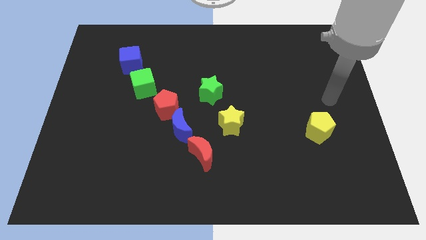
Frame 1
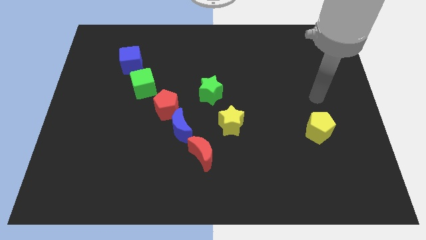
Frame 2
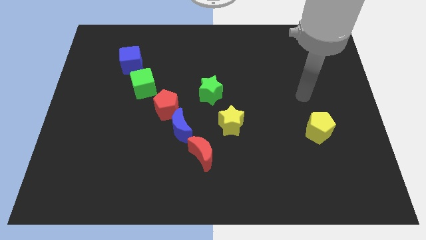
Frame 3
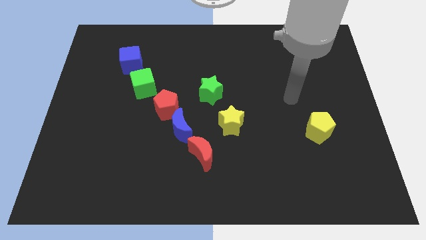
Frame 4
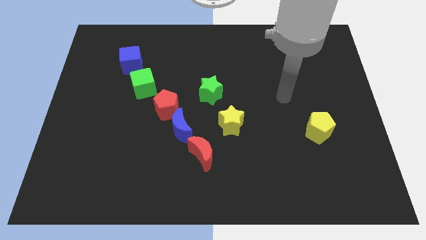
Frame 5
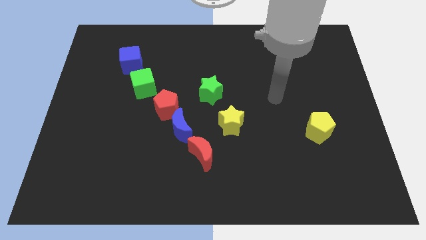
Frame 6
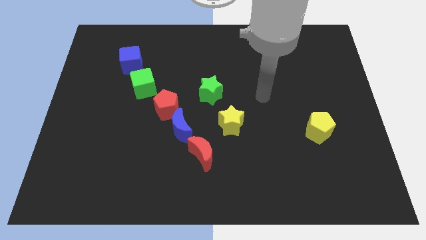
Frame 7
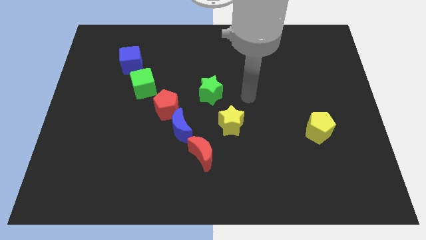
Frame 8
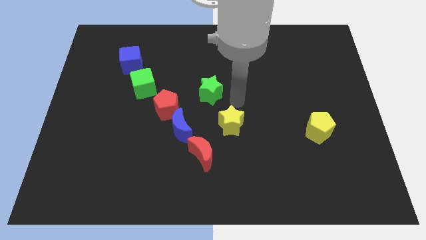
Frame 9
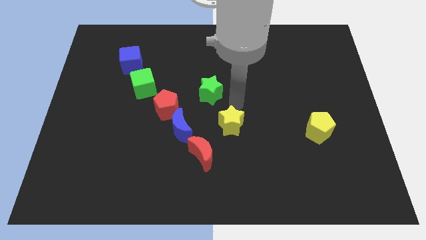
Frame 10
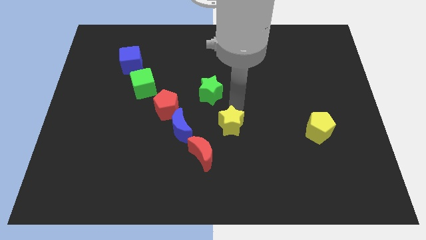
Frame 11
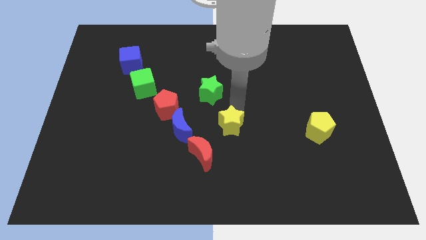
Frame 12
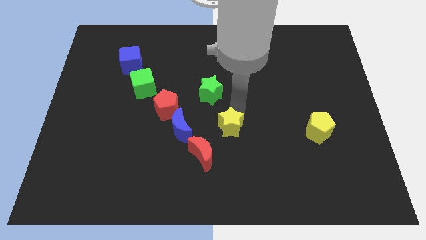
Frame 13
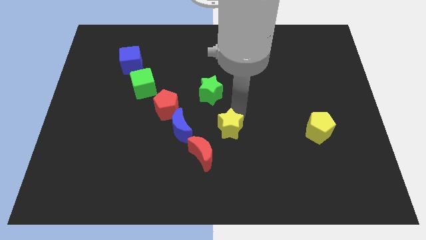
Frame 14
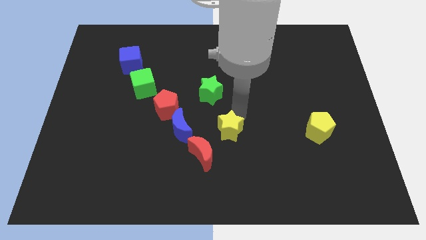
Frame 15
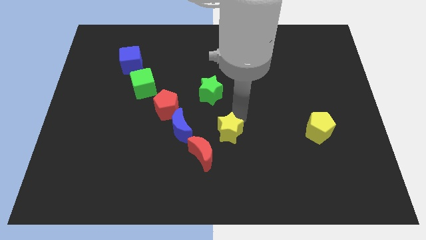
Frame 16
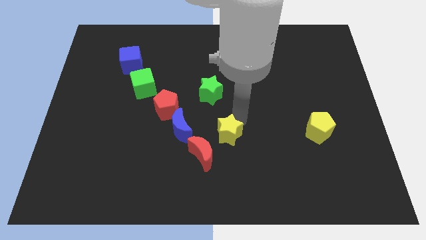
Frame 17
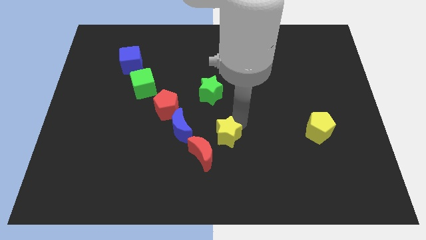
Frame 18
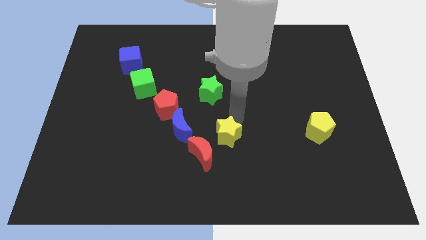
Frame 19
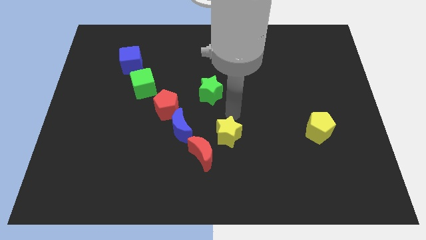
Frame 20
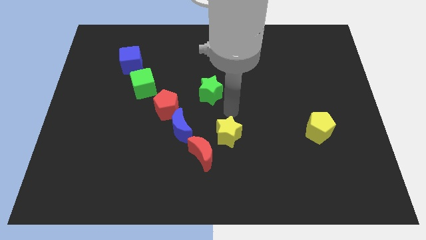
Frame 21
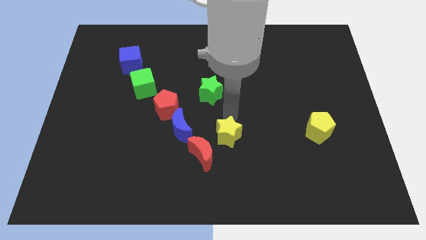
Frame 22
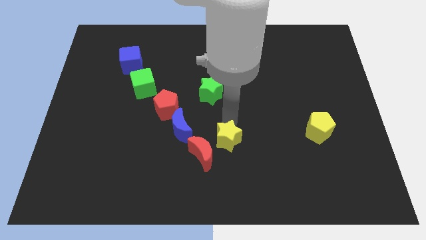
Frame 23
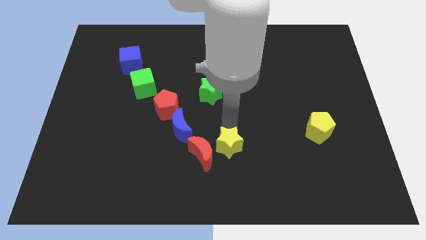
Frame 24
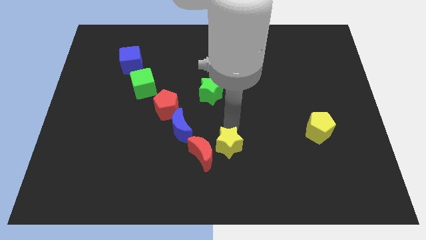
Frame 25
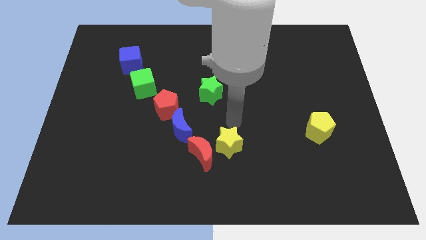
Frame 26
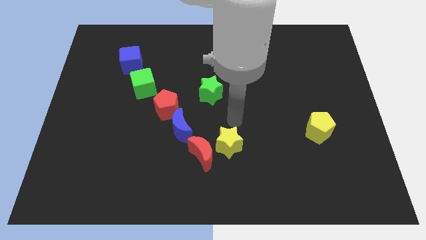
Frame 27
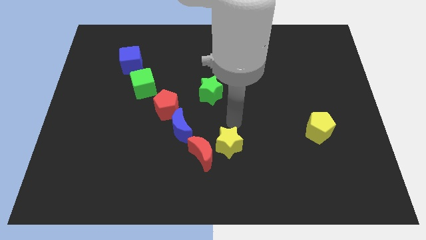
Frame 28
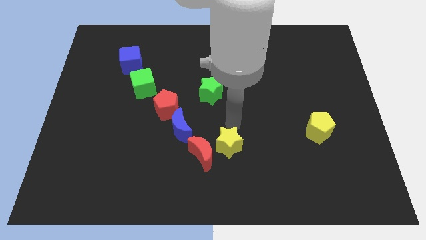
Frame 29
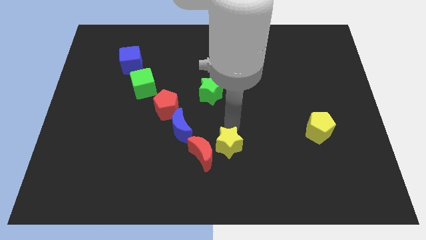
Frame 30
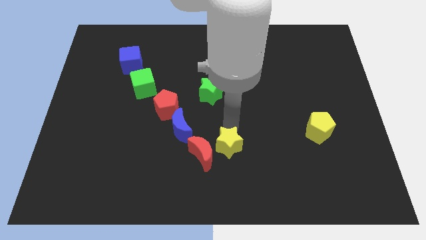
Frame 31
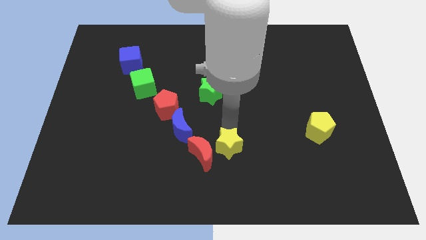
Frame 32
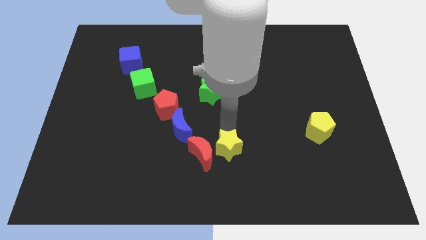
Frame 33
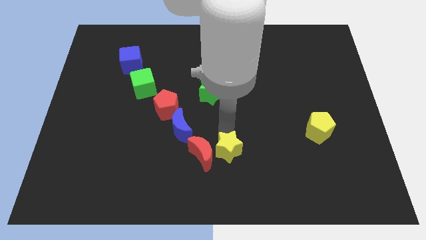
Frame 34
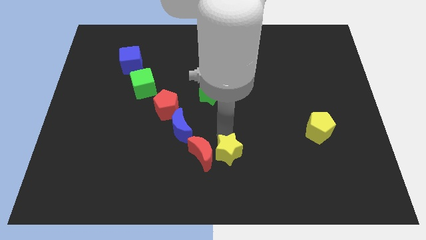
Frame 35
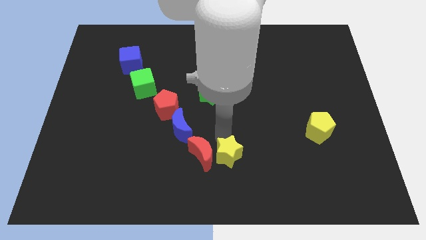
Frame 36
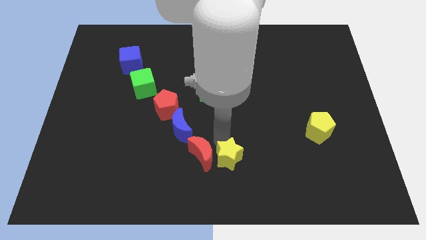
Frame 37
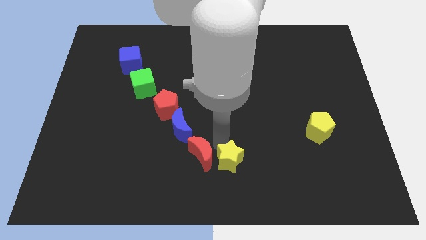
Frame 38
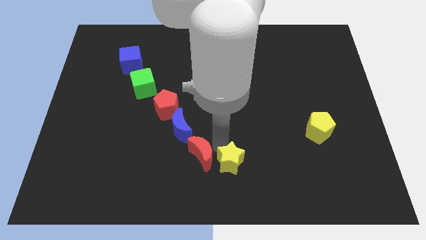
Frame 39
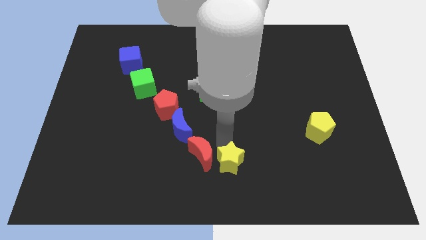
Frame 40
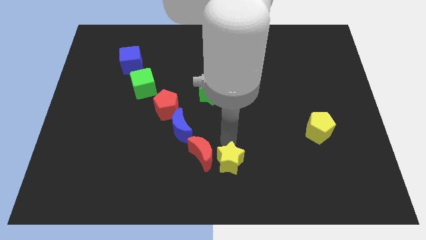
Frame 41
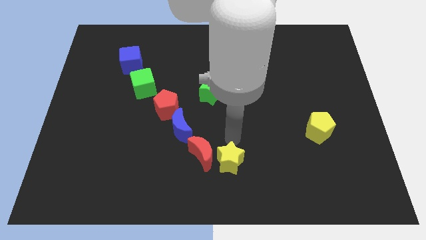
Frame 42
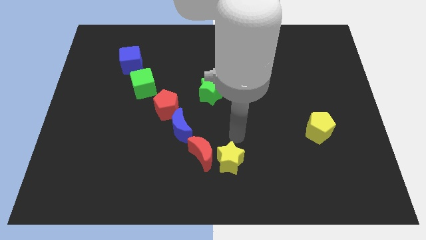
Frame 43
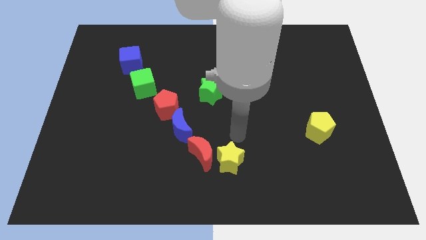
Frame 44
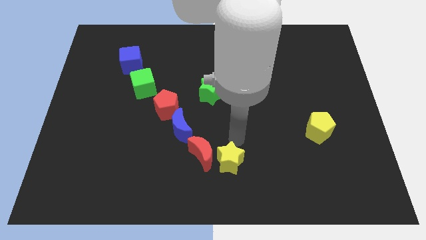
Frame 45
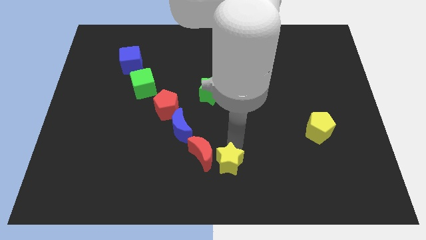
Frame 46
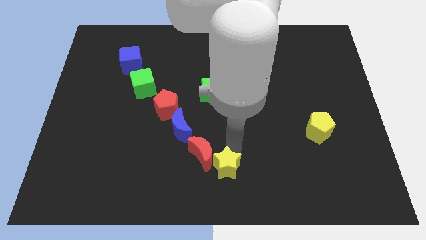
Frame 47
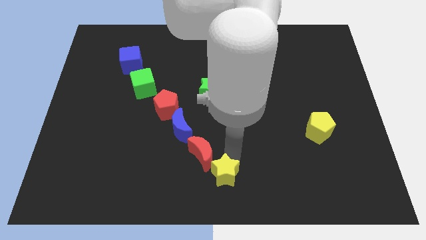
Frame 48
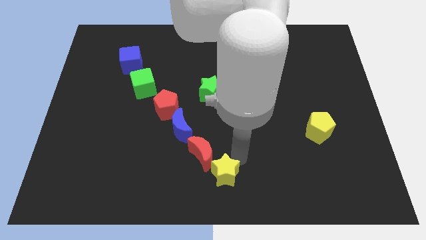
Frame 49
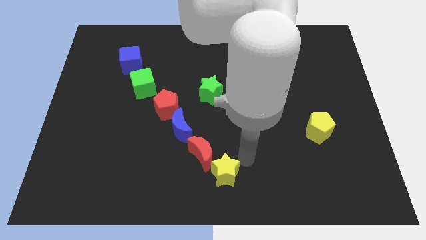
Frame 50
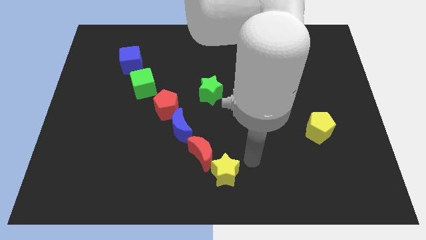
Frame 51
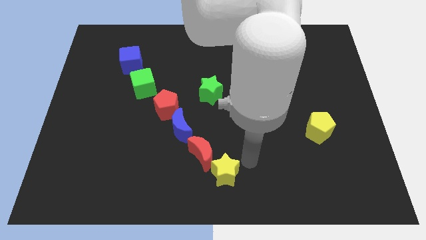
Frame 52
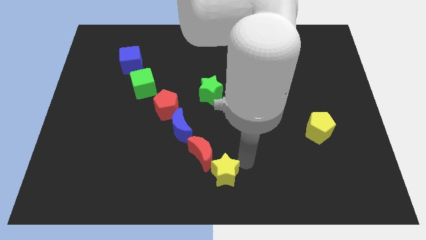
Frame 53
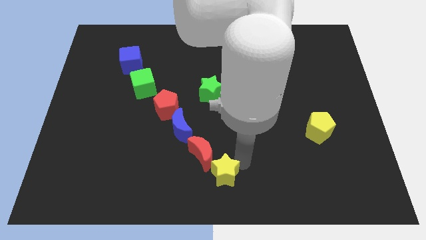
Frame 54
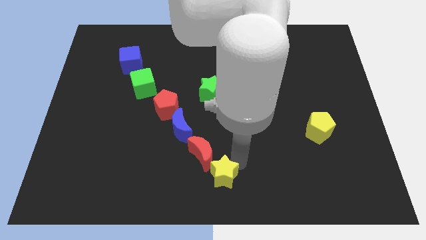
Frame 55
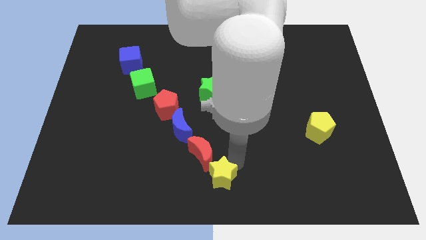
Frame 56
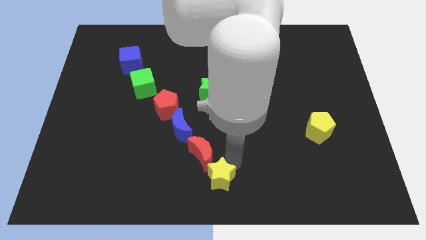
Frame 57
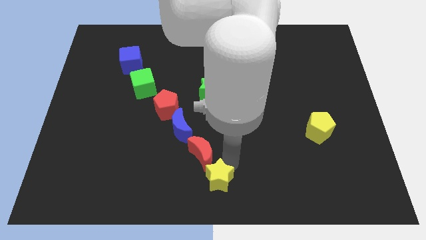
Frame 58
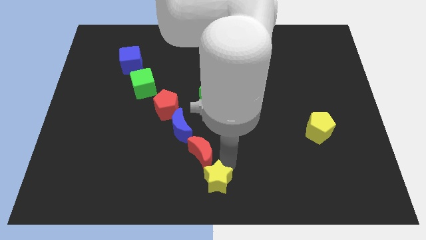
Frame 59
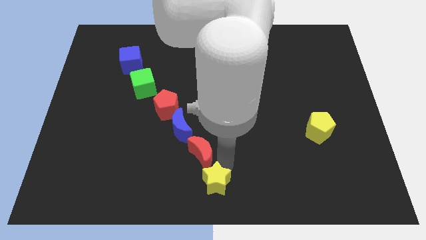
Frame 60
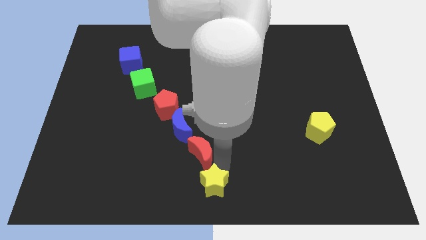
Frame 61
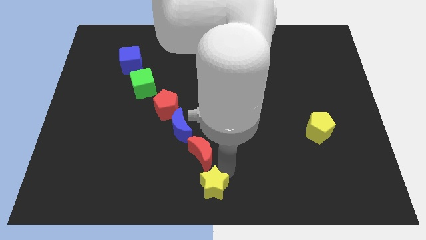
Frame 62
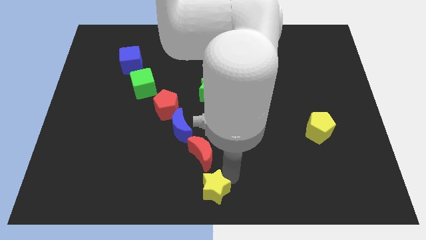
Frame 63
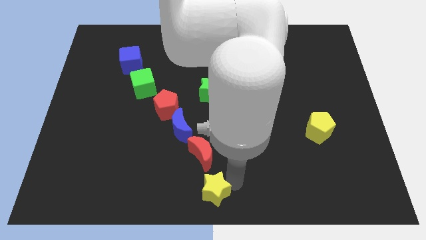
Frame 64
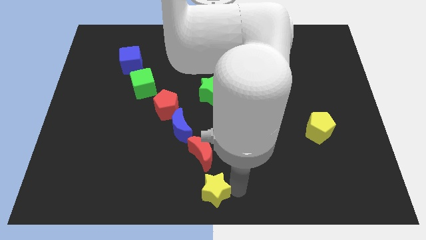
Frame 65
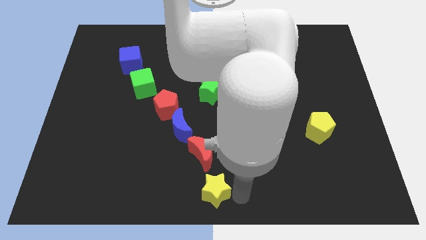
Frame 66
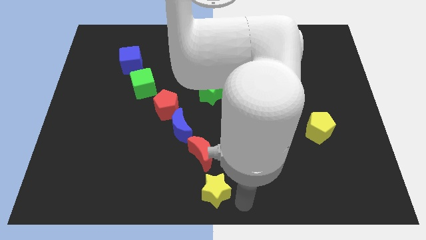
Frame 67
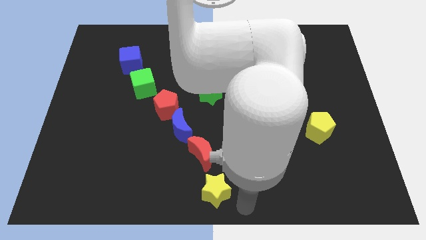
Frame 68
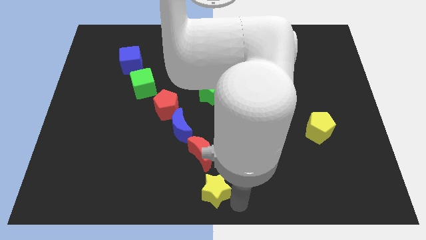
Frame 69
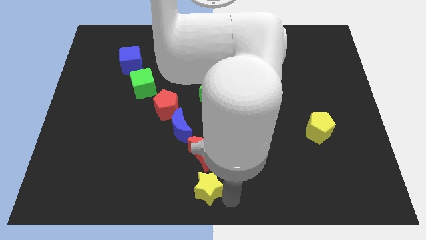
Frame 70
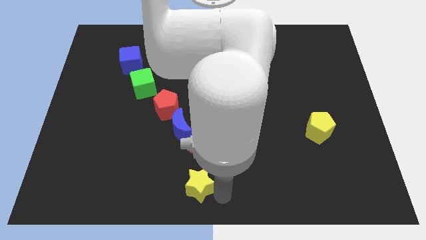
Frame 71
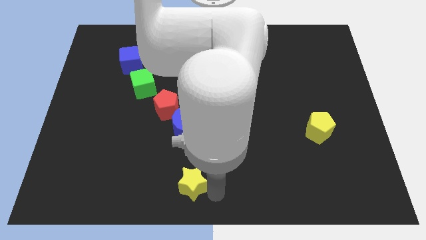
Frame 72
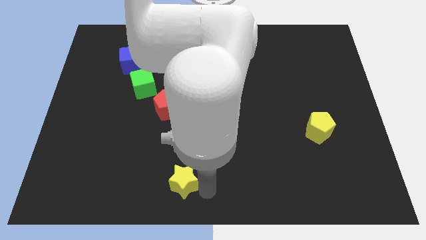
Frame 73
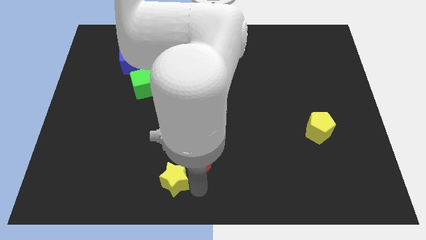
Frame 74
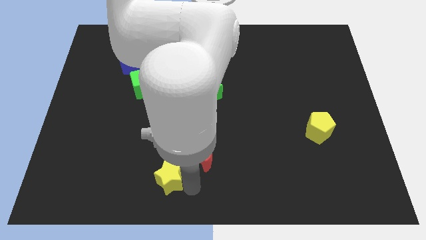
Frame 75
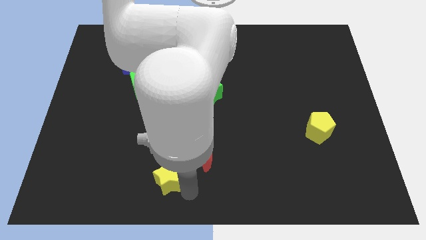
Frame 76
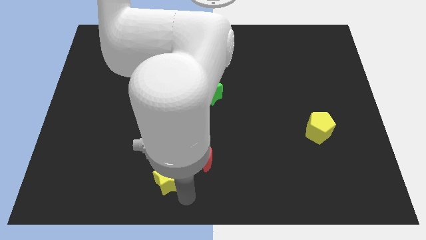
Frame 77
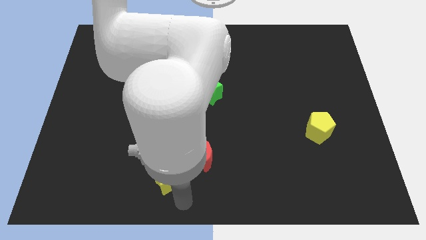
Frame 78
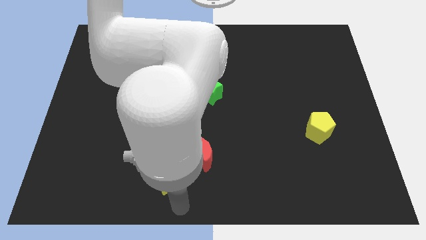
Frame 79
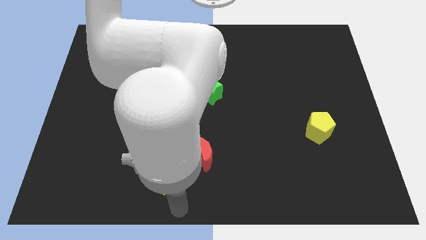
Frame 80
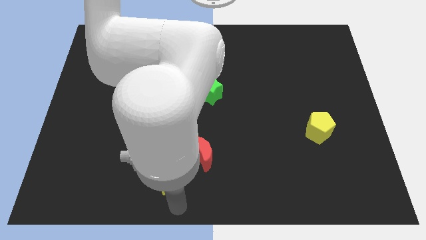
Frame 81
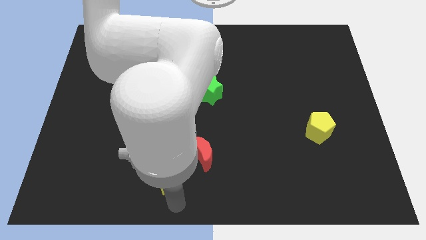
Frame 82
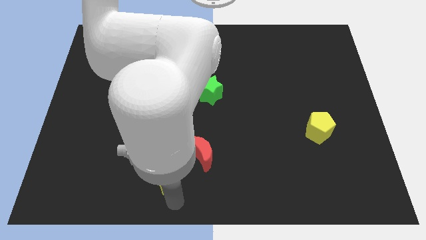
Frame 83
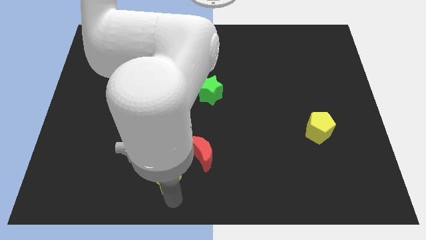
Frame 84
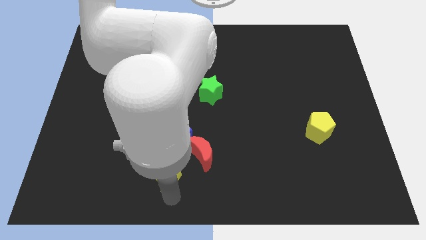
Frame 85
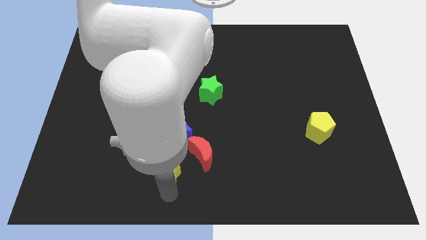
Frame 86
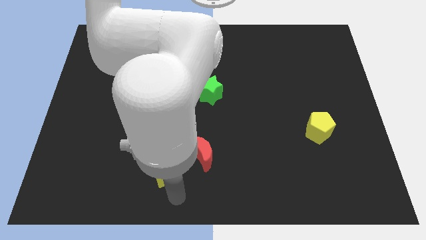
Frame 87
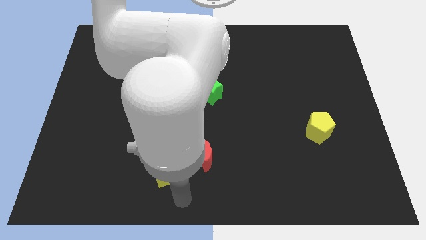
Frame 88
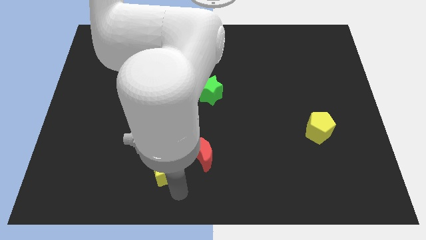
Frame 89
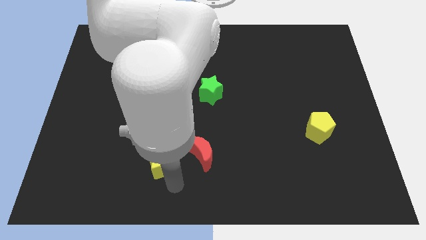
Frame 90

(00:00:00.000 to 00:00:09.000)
move the yellow star left somewhat
